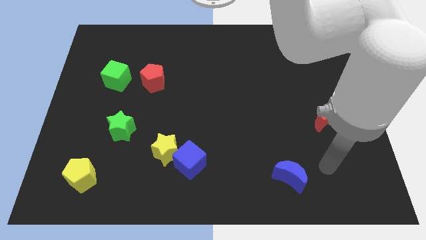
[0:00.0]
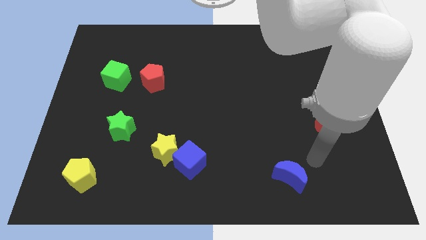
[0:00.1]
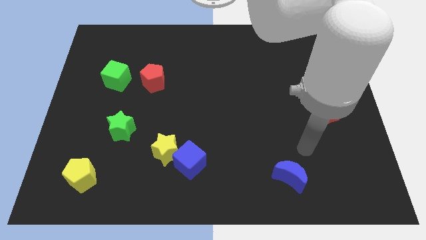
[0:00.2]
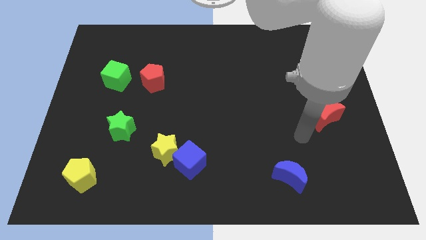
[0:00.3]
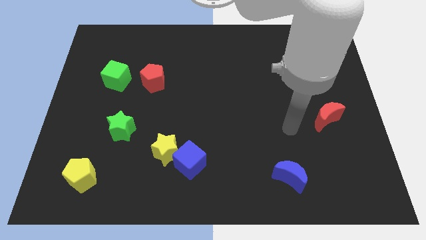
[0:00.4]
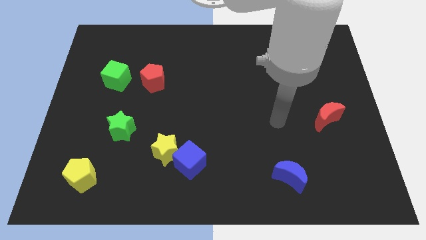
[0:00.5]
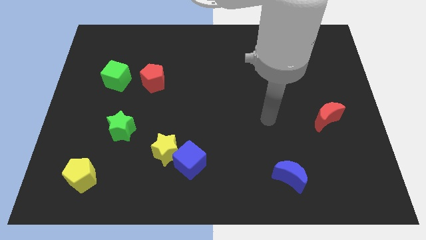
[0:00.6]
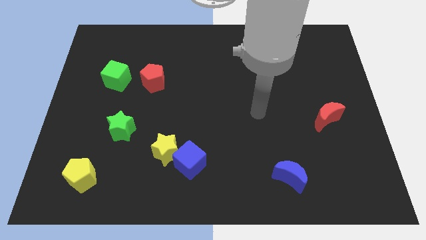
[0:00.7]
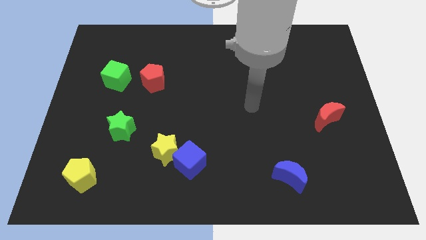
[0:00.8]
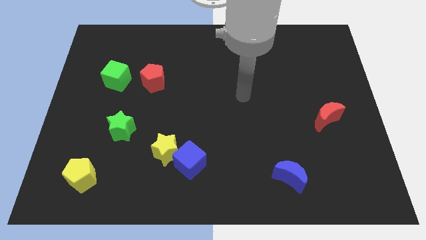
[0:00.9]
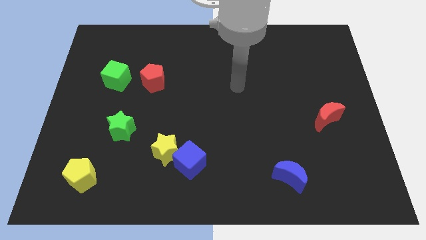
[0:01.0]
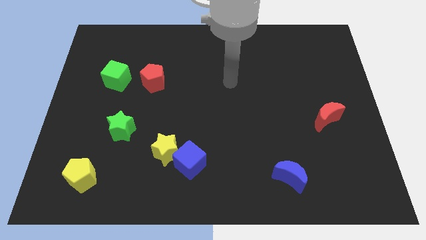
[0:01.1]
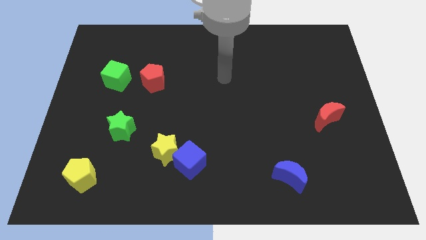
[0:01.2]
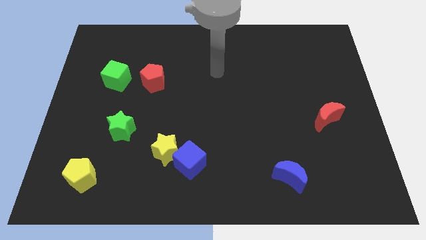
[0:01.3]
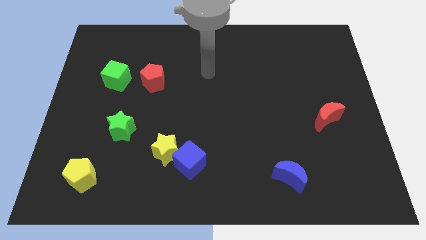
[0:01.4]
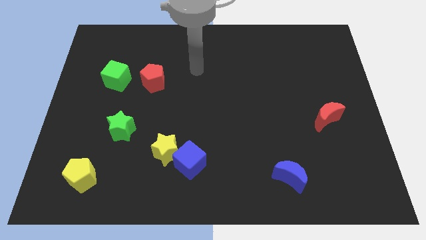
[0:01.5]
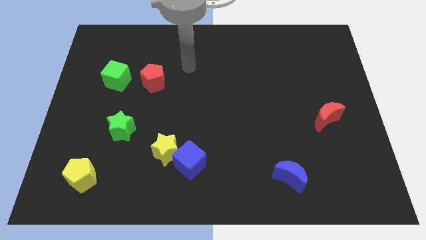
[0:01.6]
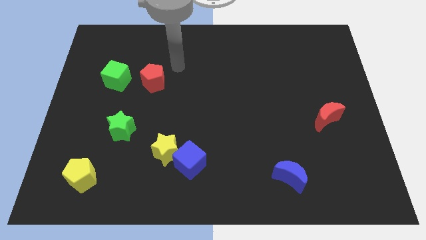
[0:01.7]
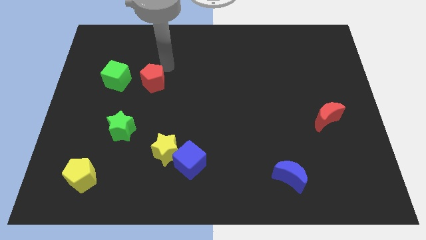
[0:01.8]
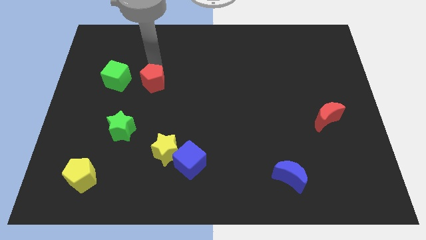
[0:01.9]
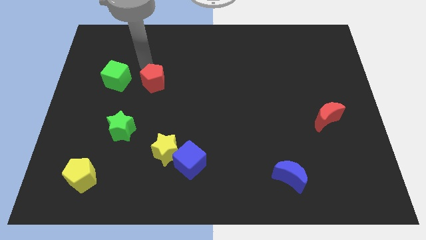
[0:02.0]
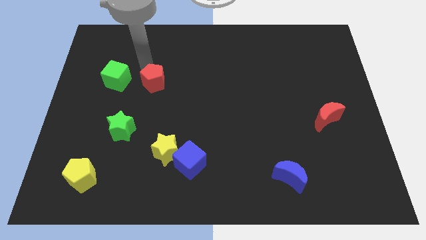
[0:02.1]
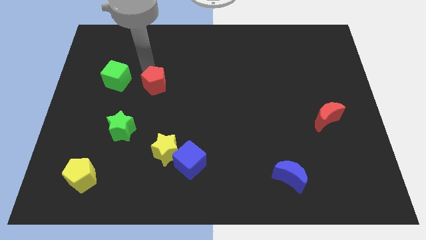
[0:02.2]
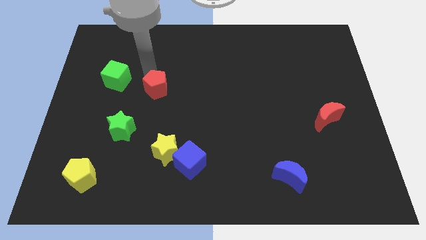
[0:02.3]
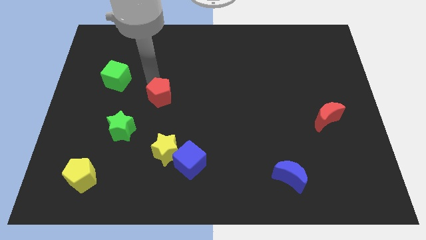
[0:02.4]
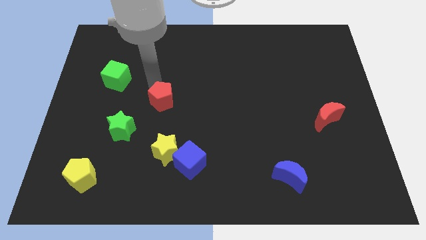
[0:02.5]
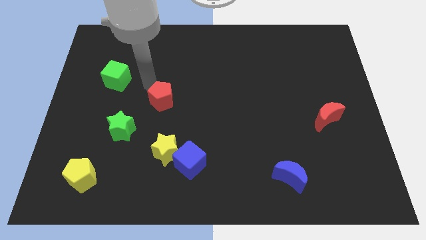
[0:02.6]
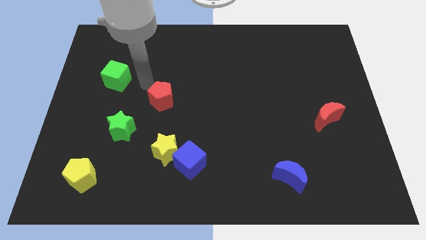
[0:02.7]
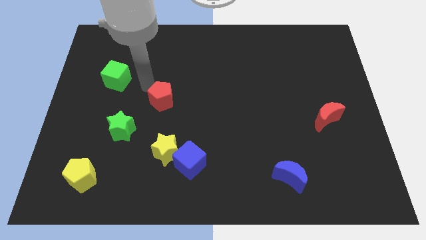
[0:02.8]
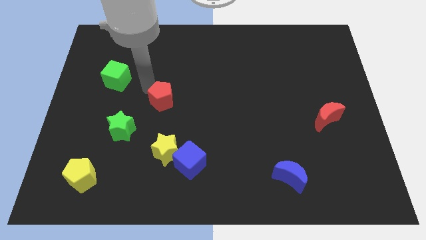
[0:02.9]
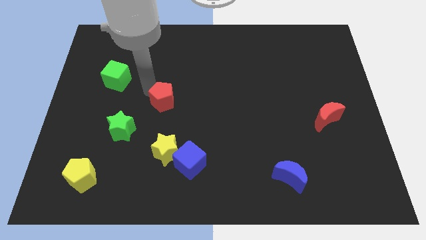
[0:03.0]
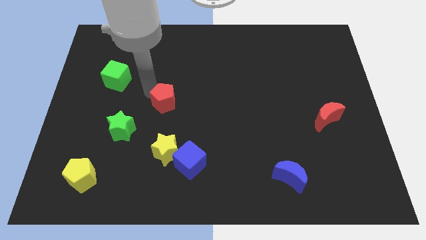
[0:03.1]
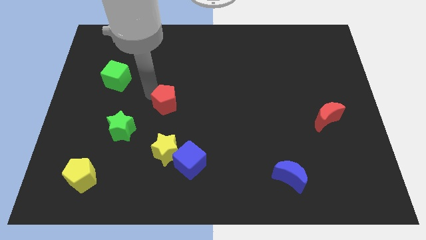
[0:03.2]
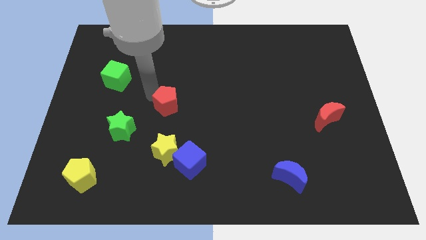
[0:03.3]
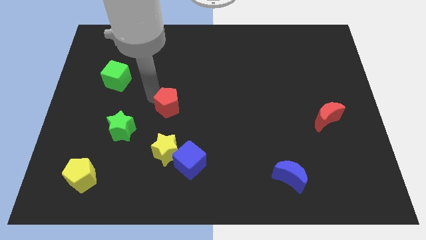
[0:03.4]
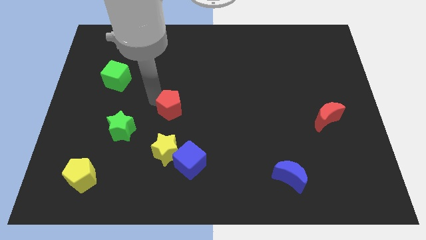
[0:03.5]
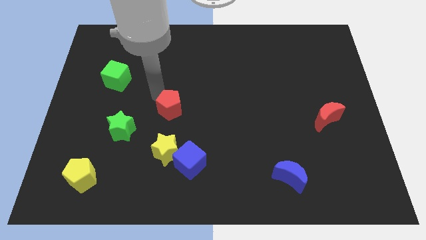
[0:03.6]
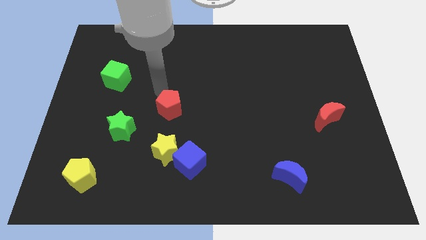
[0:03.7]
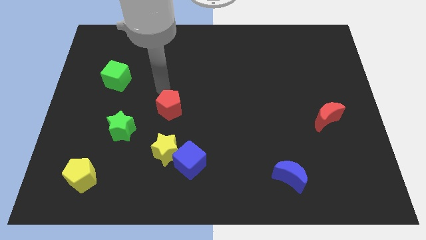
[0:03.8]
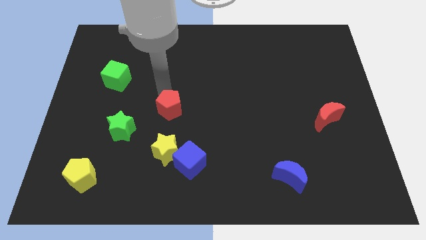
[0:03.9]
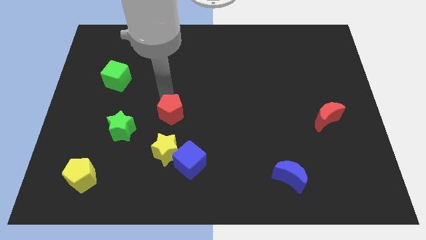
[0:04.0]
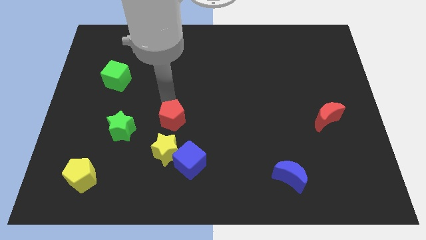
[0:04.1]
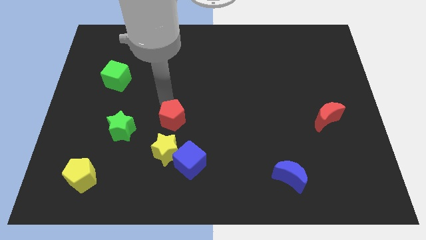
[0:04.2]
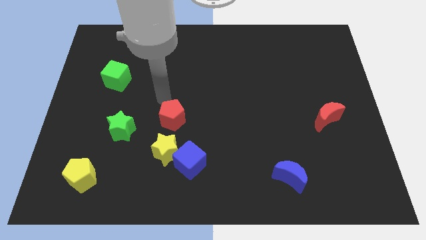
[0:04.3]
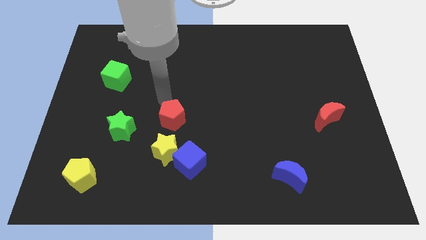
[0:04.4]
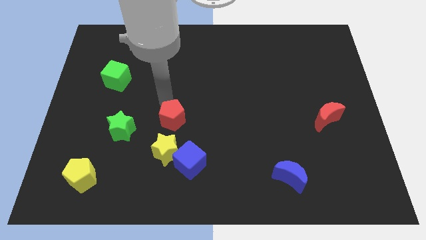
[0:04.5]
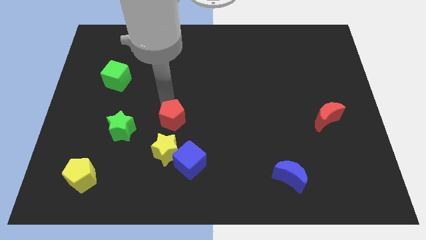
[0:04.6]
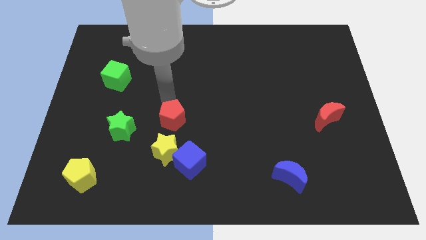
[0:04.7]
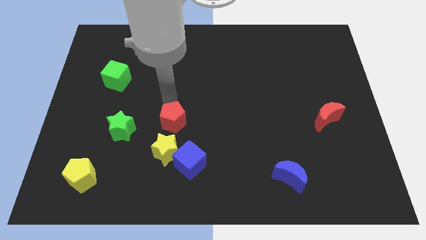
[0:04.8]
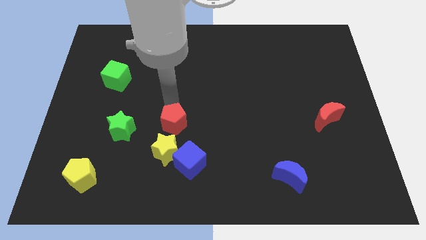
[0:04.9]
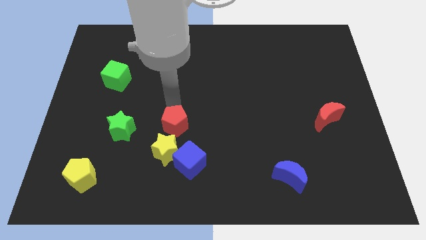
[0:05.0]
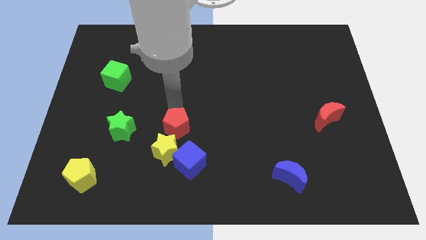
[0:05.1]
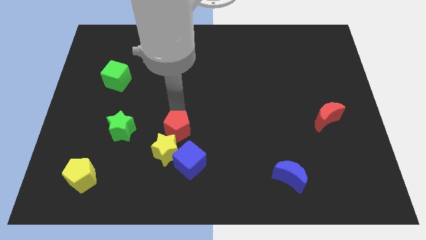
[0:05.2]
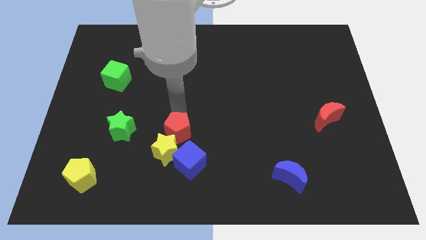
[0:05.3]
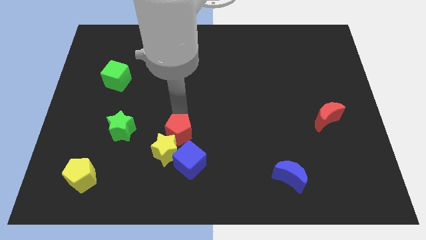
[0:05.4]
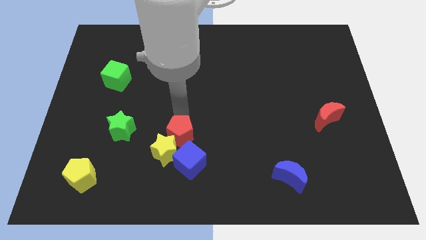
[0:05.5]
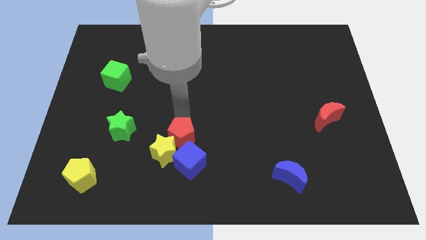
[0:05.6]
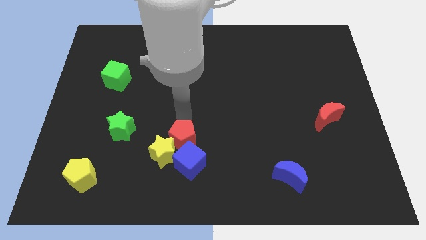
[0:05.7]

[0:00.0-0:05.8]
move the red pentagon close to the blue cube

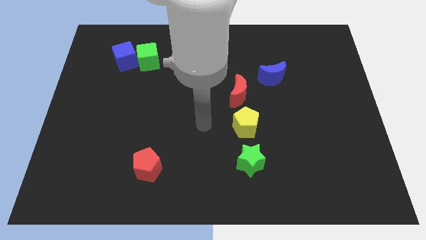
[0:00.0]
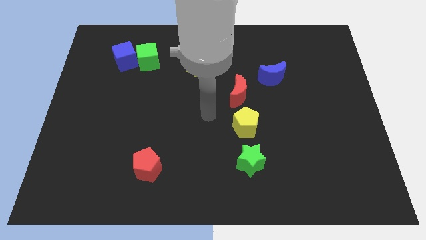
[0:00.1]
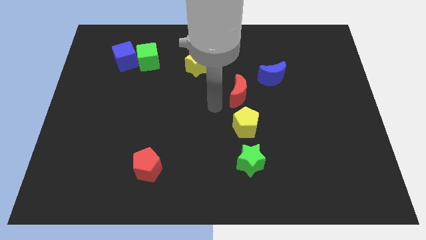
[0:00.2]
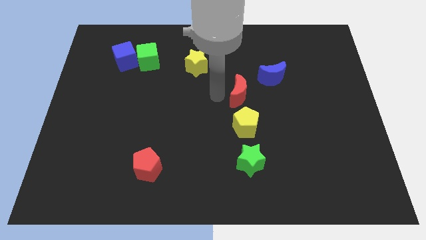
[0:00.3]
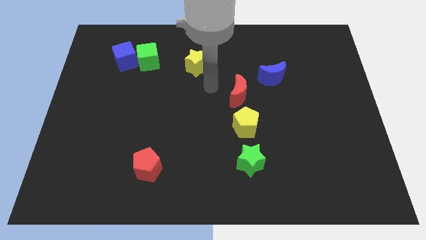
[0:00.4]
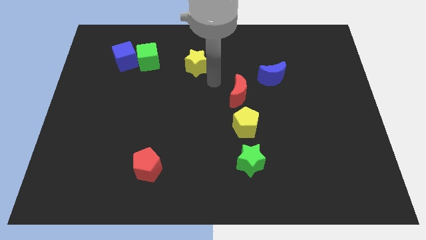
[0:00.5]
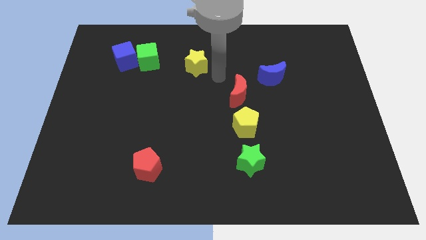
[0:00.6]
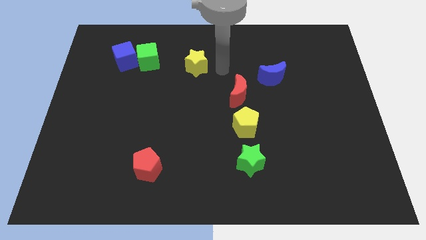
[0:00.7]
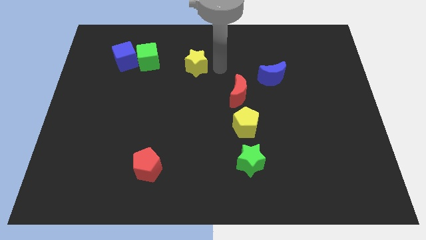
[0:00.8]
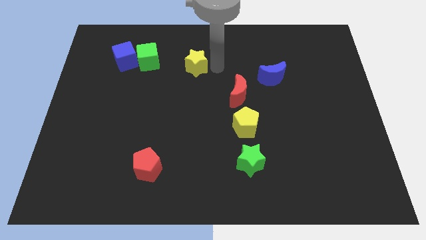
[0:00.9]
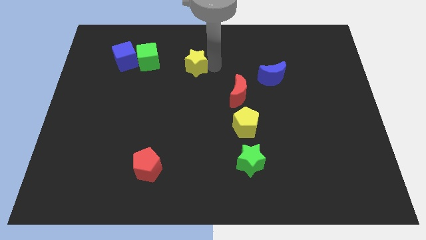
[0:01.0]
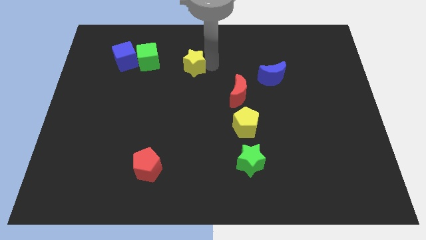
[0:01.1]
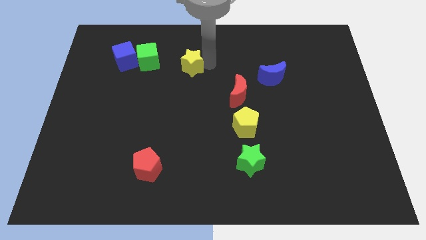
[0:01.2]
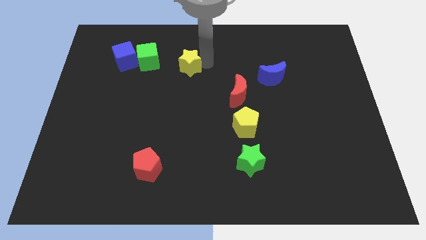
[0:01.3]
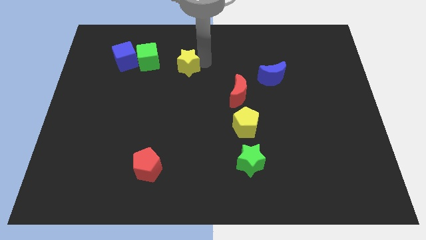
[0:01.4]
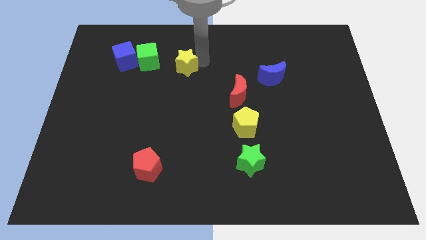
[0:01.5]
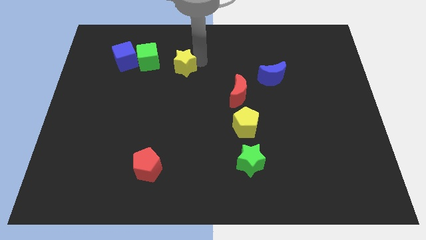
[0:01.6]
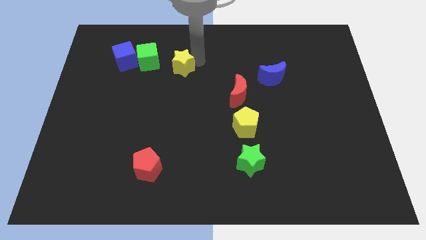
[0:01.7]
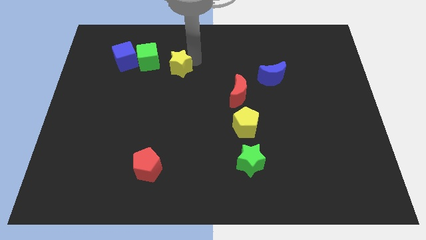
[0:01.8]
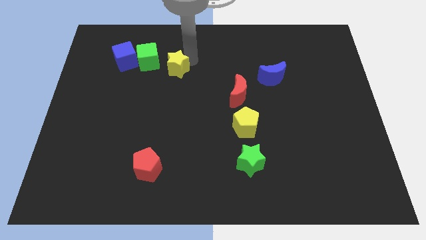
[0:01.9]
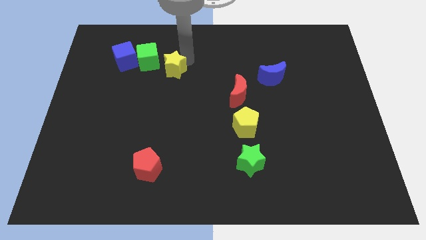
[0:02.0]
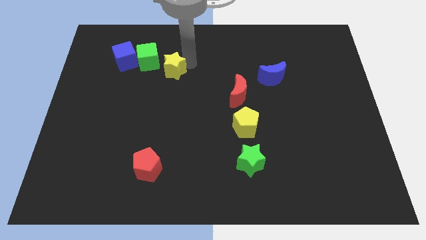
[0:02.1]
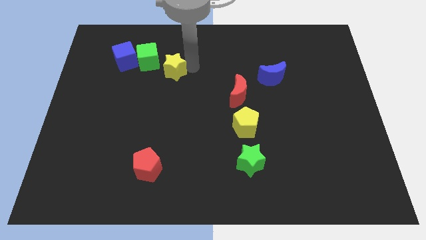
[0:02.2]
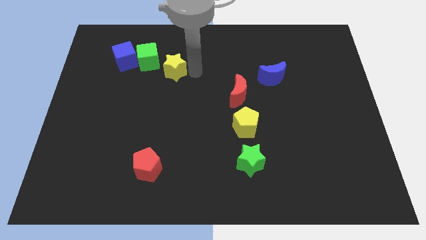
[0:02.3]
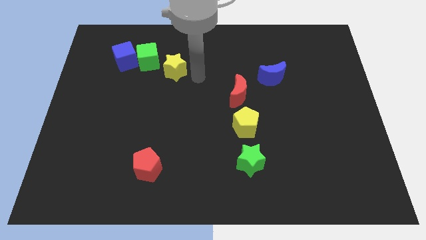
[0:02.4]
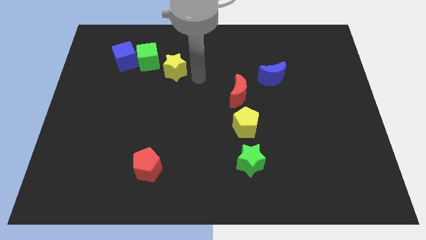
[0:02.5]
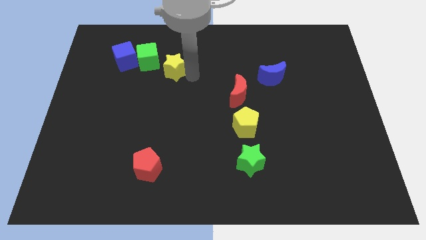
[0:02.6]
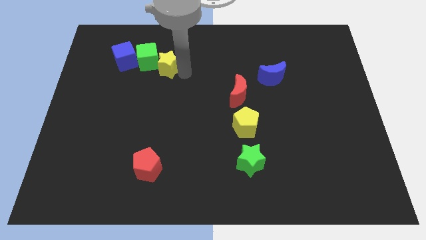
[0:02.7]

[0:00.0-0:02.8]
slide the yellow star towards the green cube
